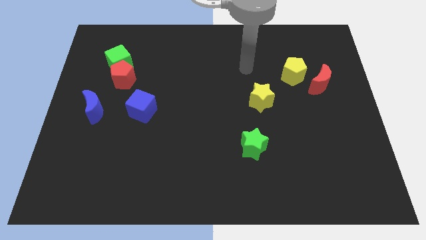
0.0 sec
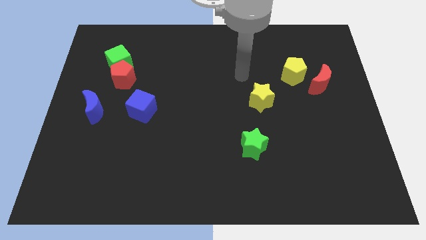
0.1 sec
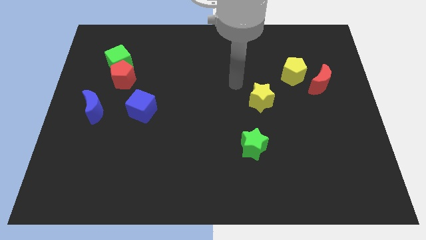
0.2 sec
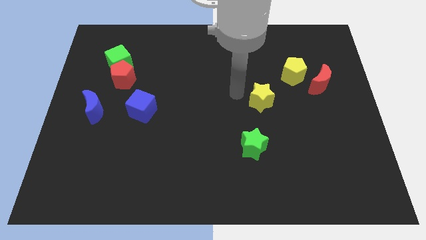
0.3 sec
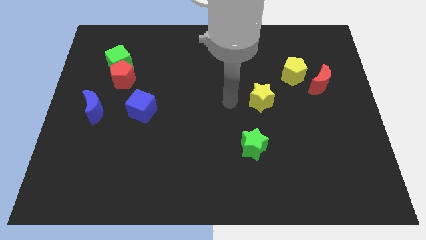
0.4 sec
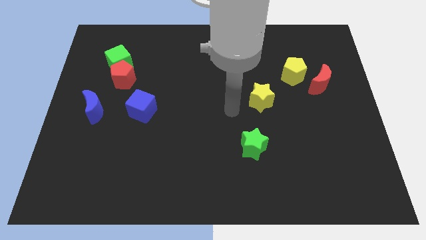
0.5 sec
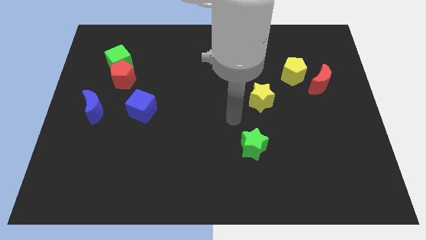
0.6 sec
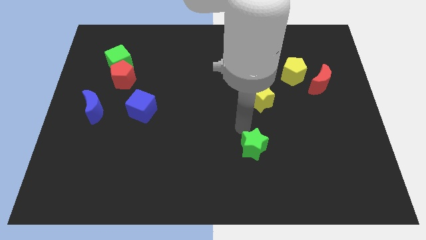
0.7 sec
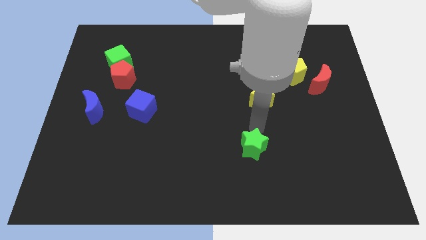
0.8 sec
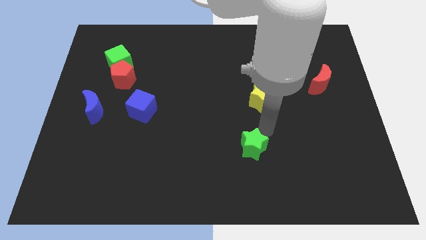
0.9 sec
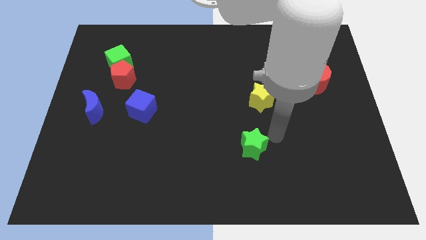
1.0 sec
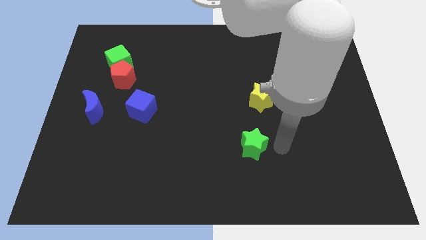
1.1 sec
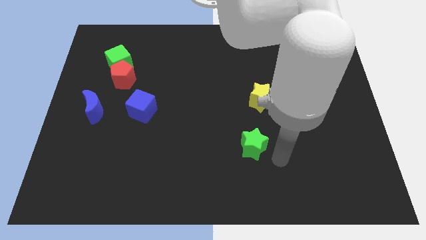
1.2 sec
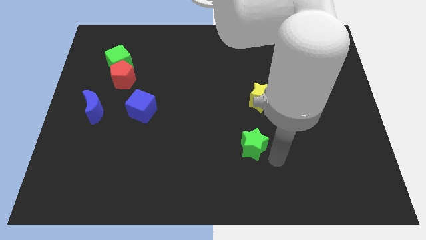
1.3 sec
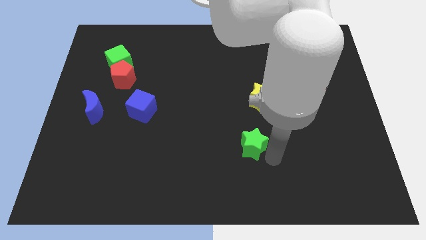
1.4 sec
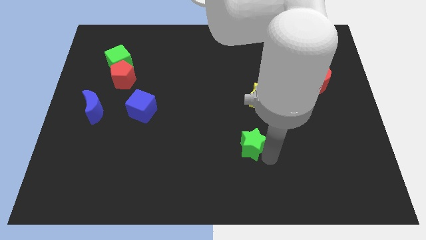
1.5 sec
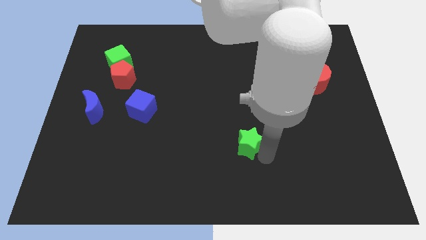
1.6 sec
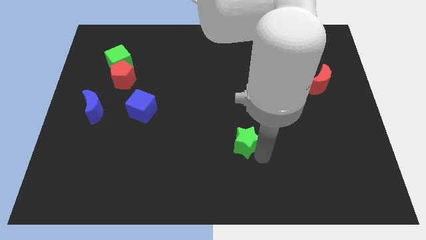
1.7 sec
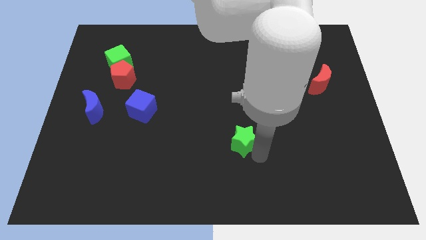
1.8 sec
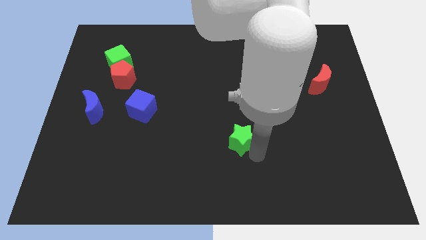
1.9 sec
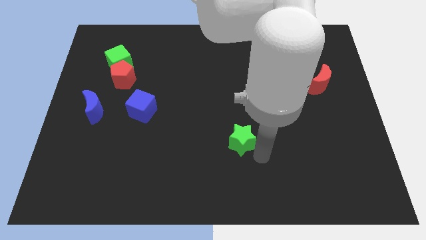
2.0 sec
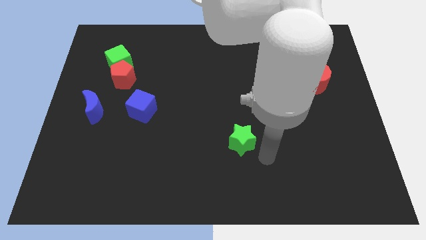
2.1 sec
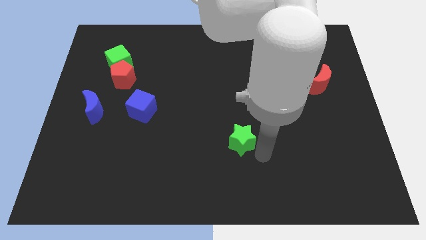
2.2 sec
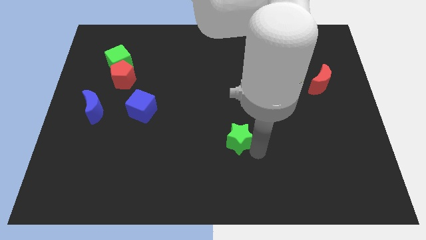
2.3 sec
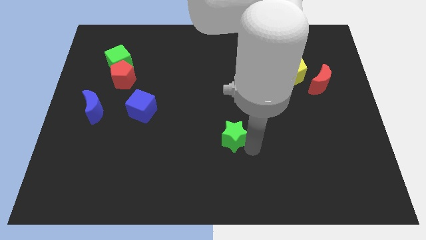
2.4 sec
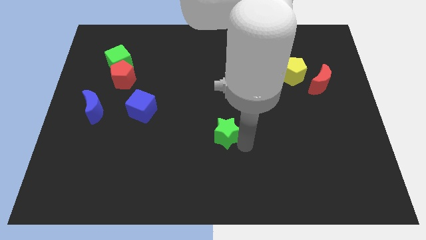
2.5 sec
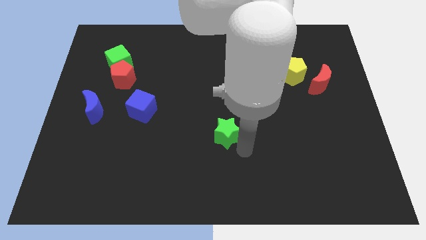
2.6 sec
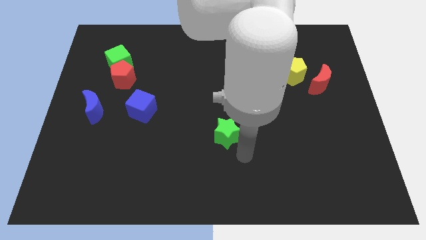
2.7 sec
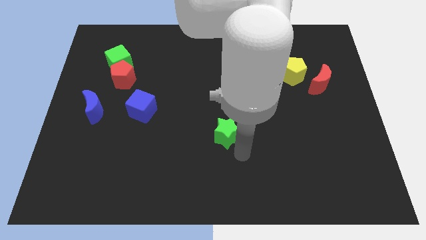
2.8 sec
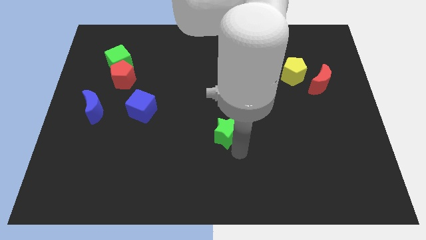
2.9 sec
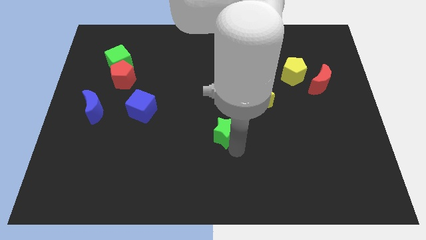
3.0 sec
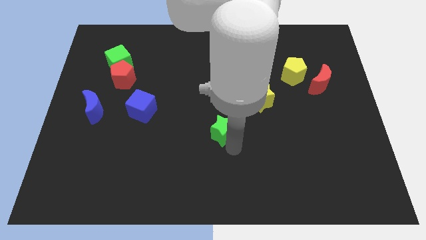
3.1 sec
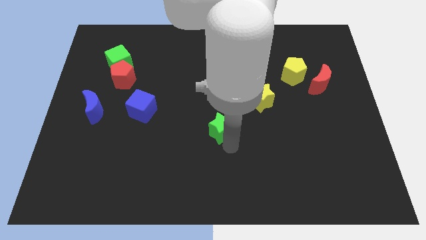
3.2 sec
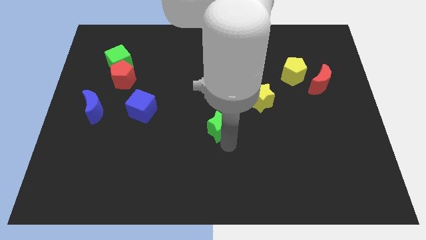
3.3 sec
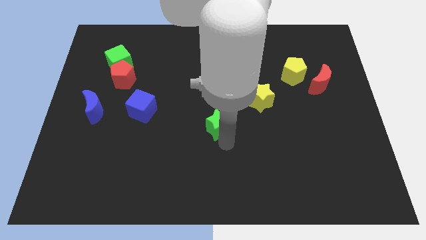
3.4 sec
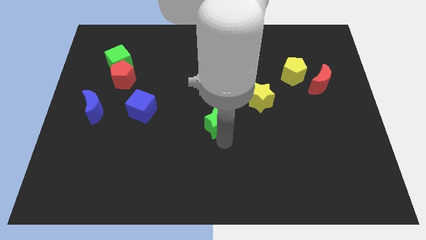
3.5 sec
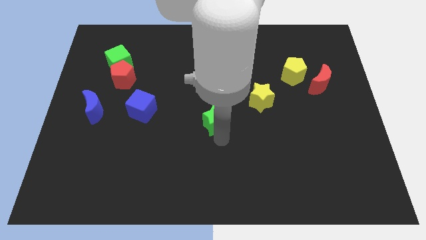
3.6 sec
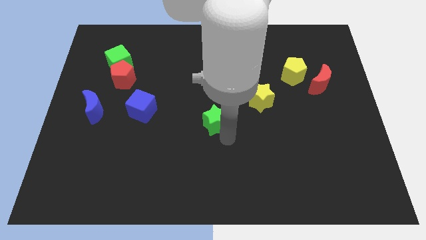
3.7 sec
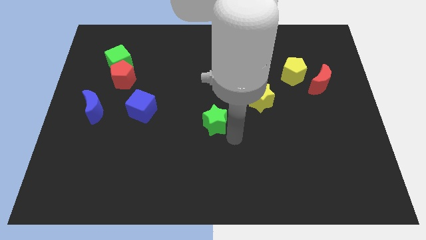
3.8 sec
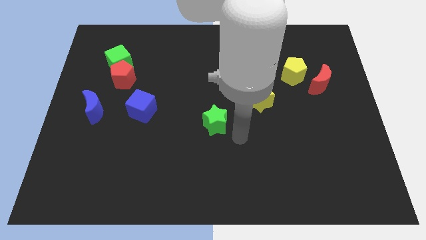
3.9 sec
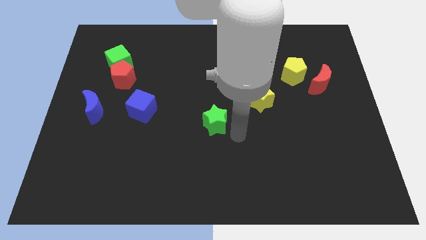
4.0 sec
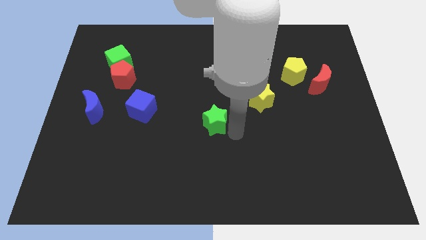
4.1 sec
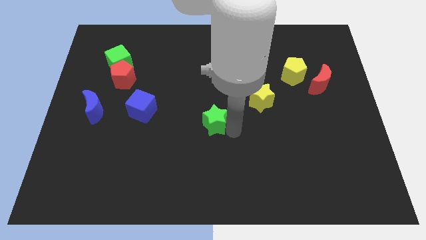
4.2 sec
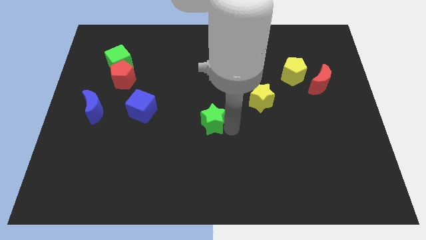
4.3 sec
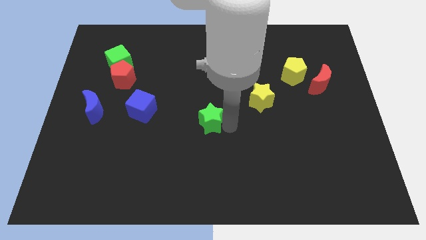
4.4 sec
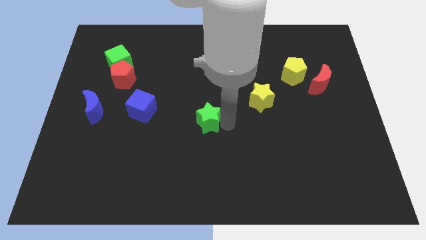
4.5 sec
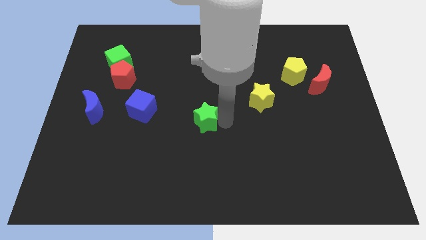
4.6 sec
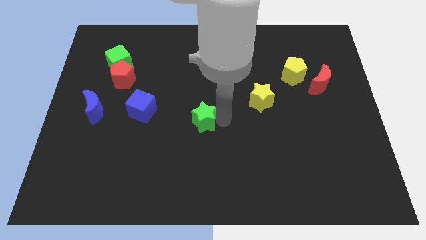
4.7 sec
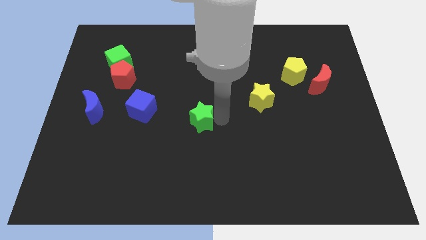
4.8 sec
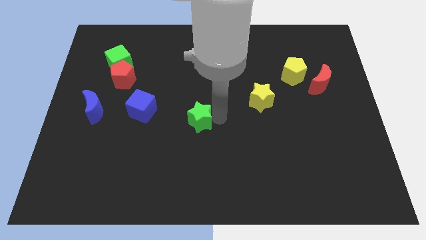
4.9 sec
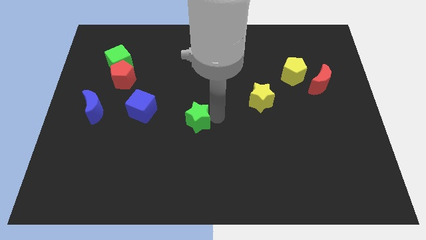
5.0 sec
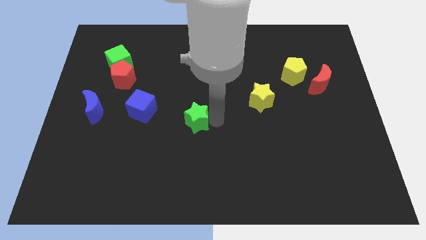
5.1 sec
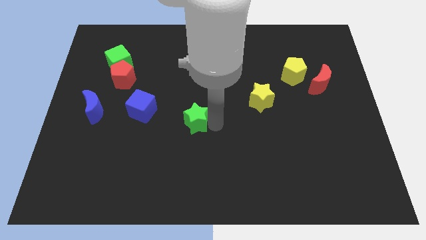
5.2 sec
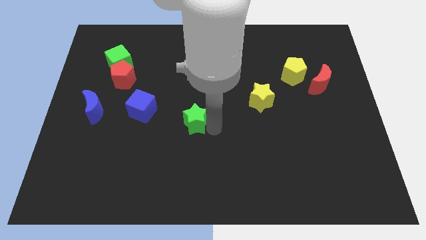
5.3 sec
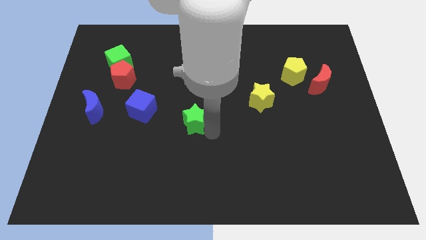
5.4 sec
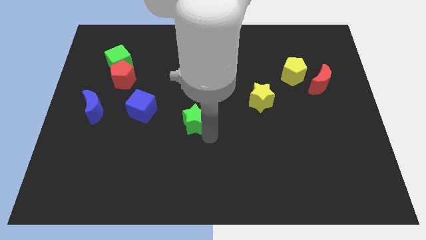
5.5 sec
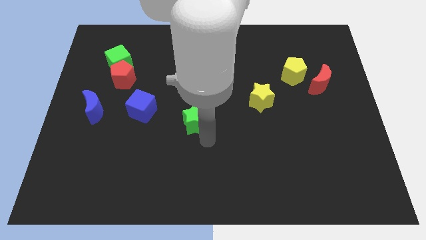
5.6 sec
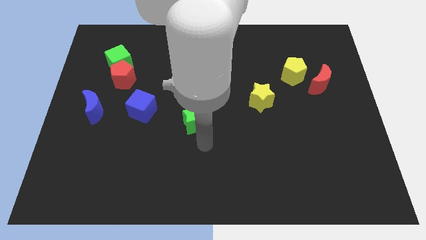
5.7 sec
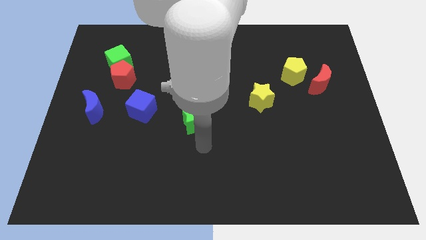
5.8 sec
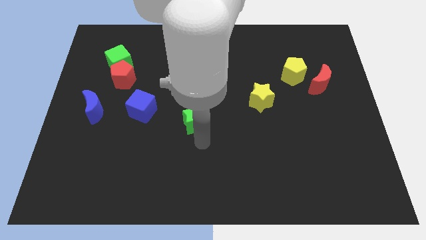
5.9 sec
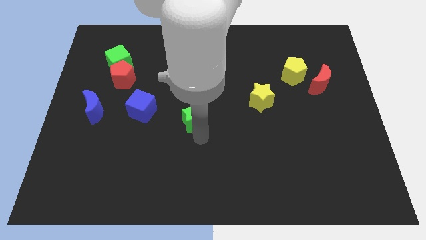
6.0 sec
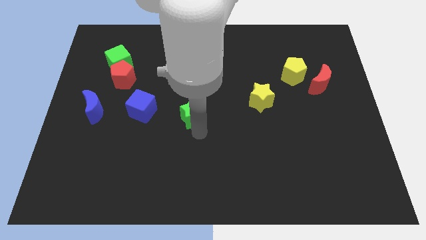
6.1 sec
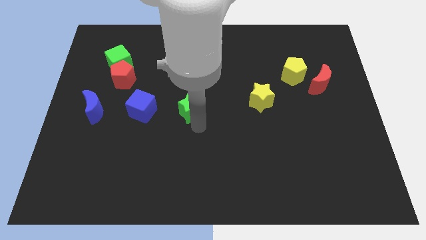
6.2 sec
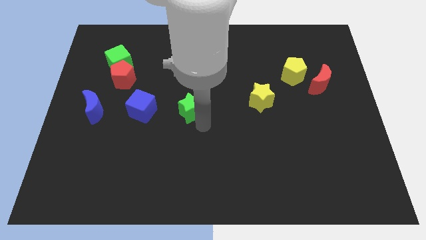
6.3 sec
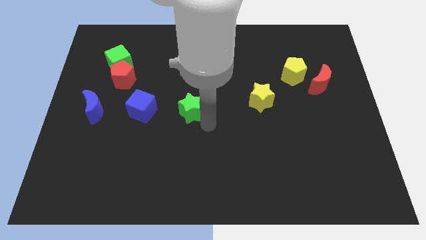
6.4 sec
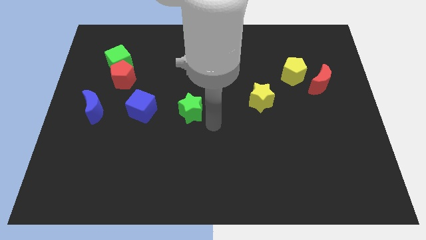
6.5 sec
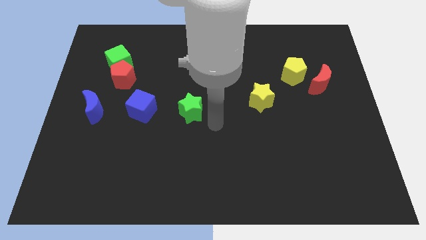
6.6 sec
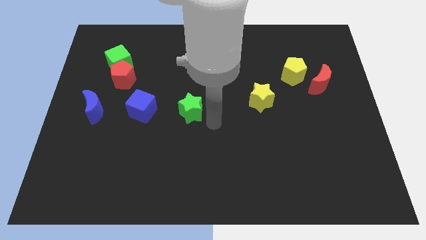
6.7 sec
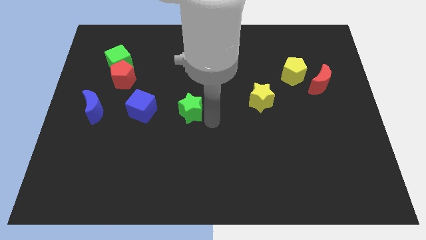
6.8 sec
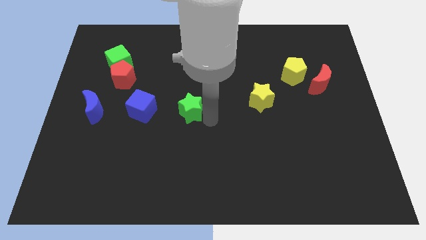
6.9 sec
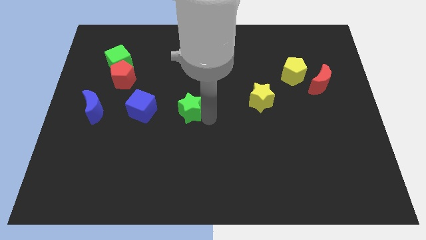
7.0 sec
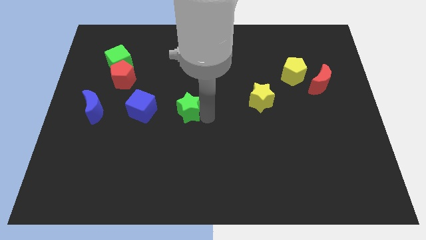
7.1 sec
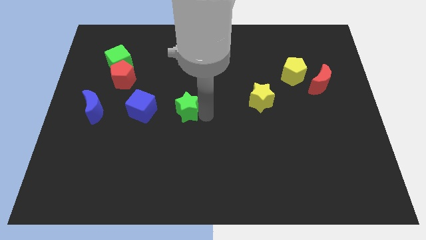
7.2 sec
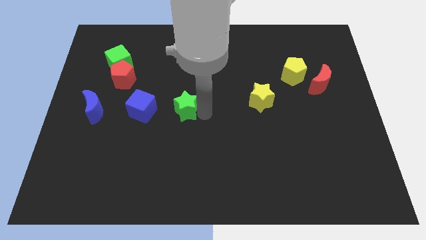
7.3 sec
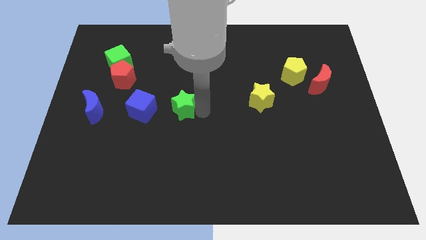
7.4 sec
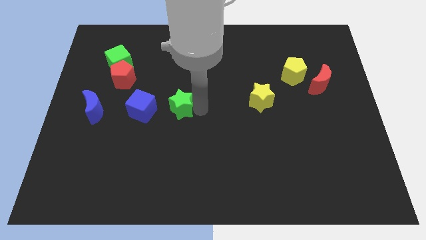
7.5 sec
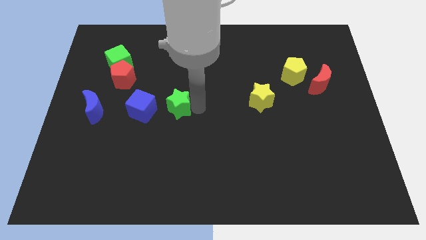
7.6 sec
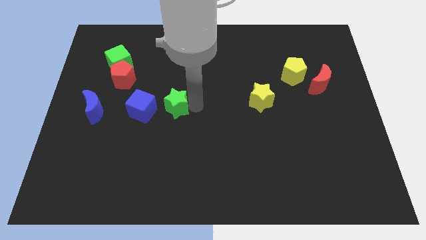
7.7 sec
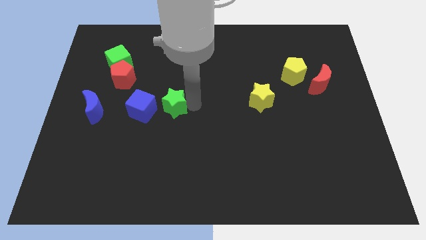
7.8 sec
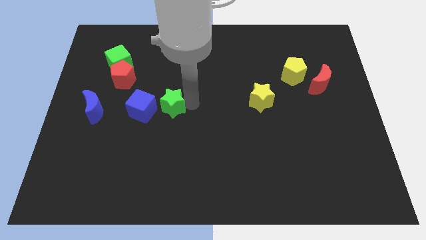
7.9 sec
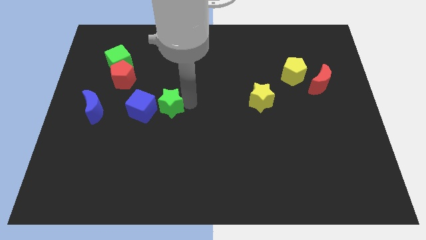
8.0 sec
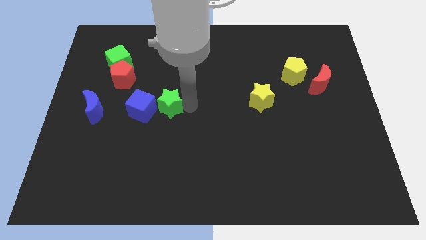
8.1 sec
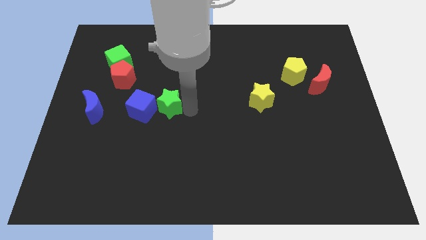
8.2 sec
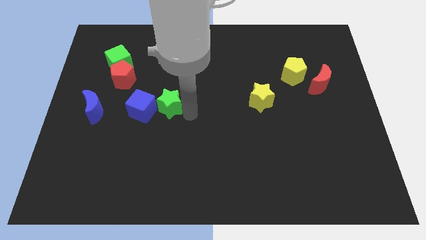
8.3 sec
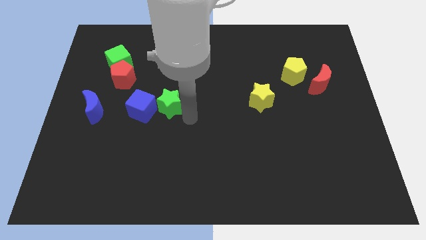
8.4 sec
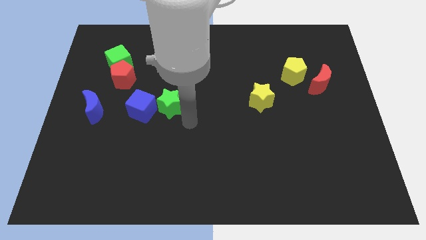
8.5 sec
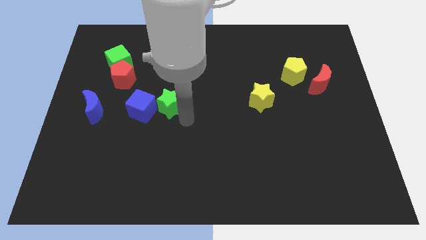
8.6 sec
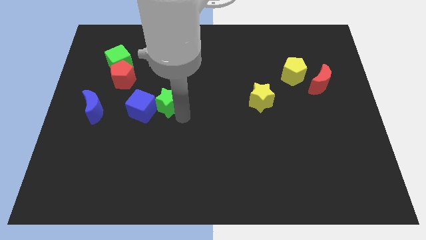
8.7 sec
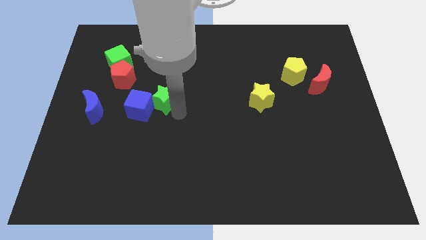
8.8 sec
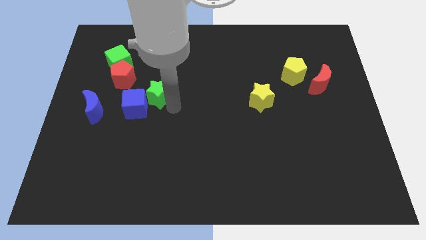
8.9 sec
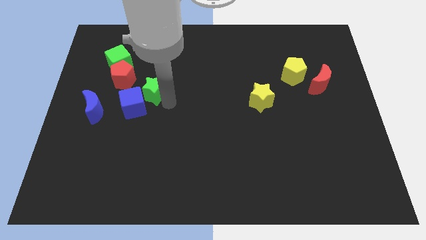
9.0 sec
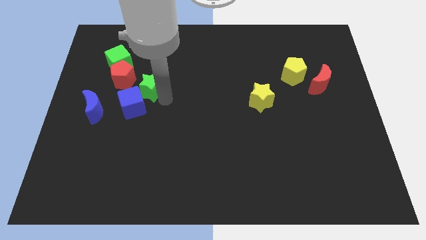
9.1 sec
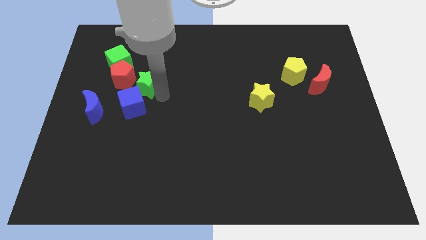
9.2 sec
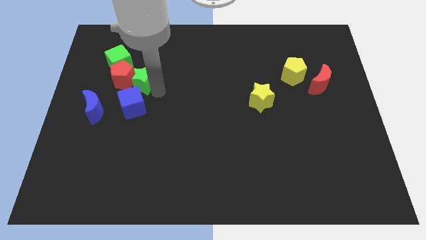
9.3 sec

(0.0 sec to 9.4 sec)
push the green star towards the red pentagon
